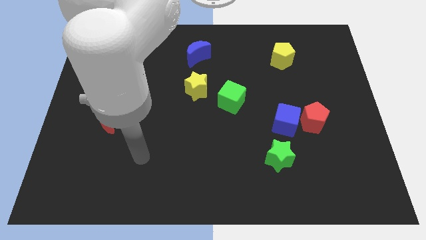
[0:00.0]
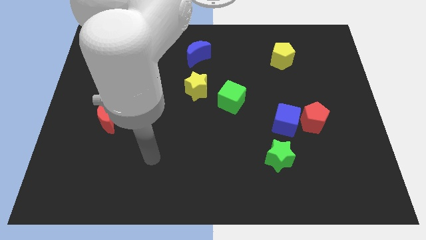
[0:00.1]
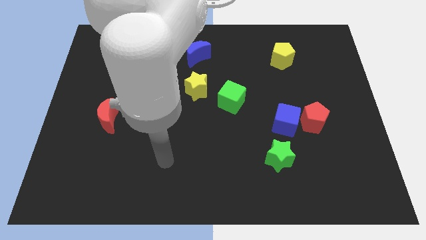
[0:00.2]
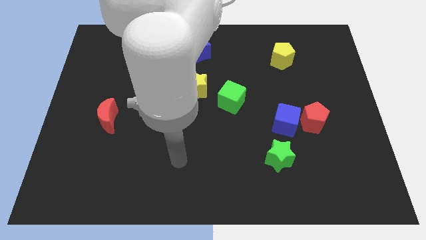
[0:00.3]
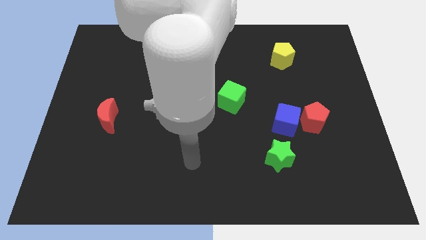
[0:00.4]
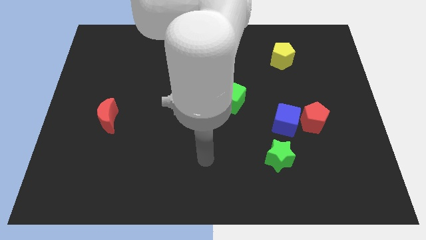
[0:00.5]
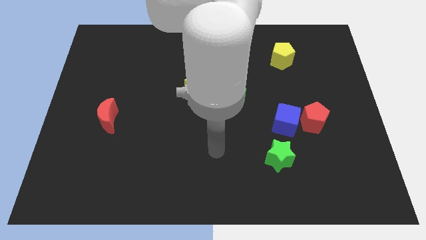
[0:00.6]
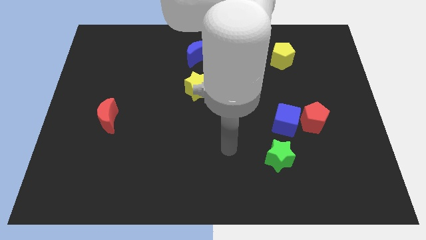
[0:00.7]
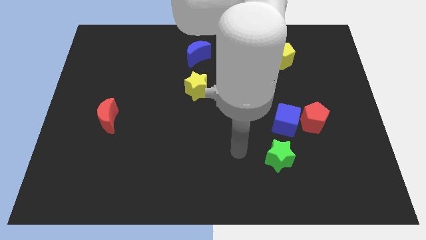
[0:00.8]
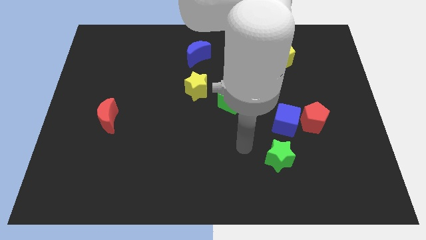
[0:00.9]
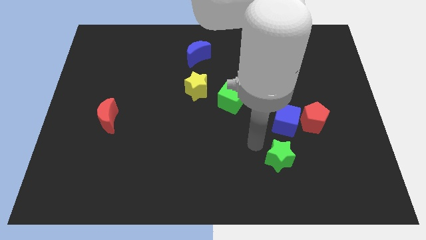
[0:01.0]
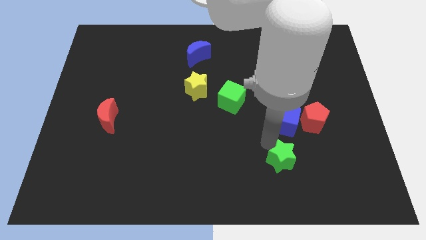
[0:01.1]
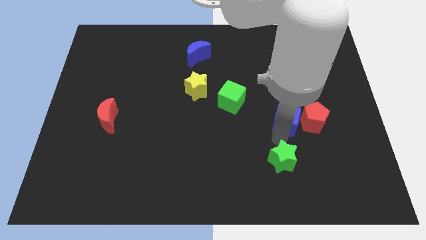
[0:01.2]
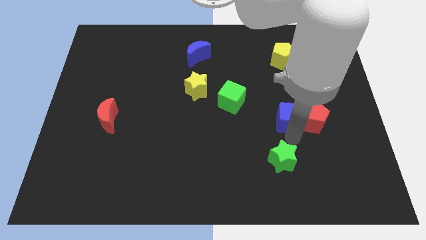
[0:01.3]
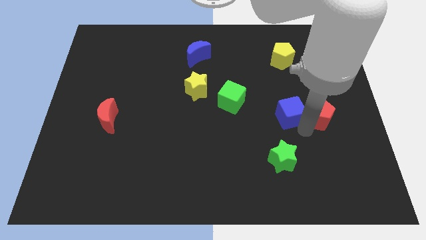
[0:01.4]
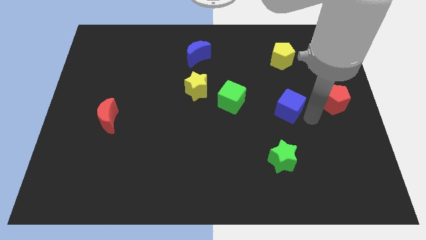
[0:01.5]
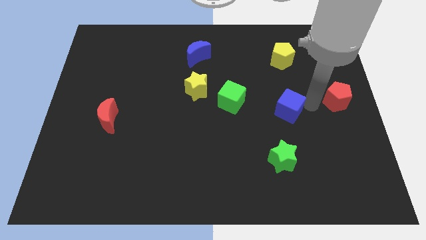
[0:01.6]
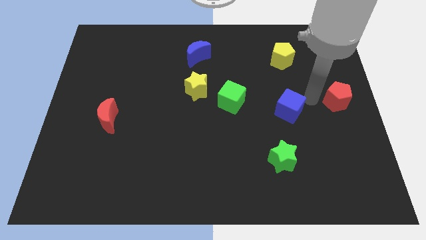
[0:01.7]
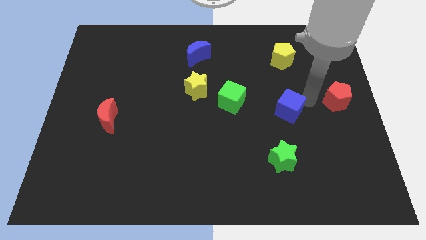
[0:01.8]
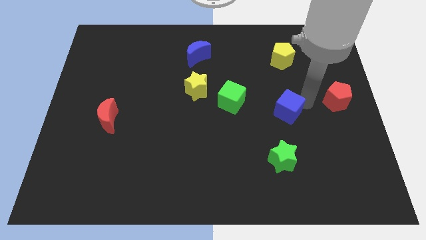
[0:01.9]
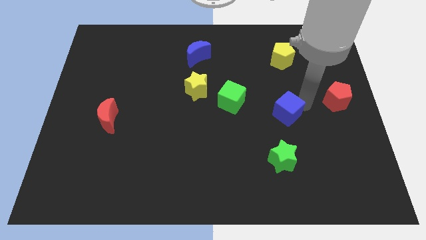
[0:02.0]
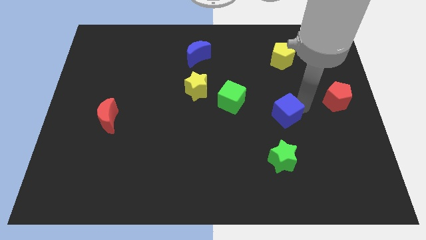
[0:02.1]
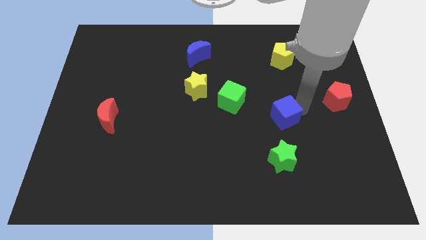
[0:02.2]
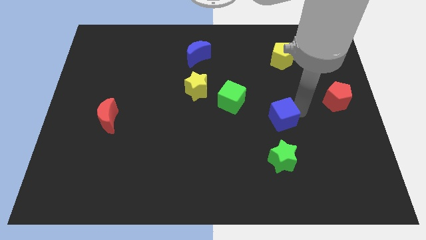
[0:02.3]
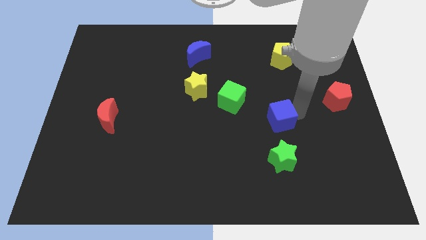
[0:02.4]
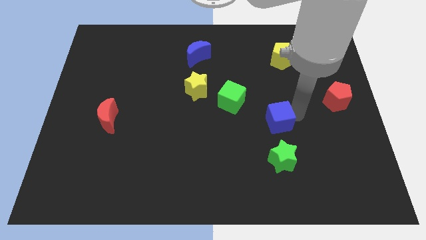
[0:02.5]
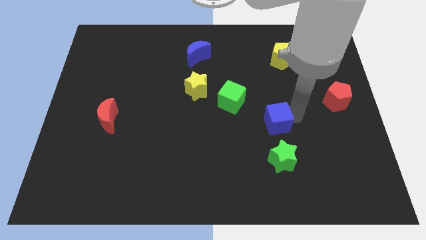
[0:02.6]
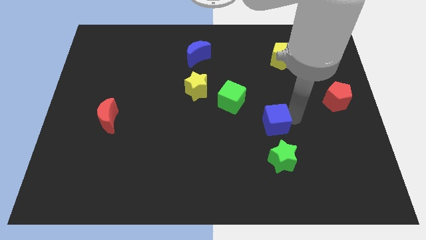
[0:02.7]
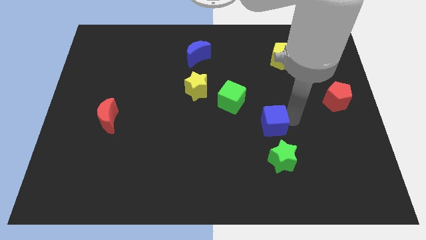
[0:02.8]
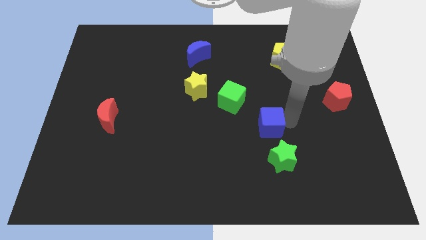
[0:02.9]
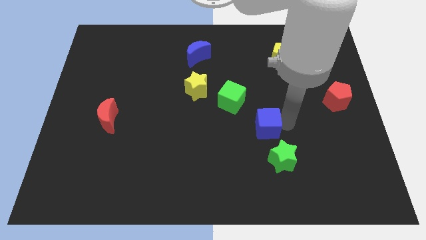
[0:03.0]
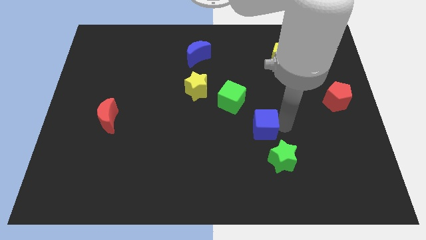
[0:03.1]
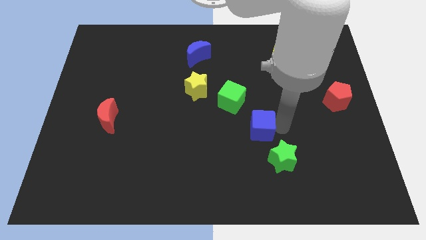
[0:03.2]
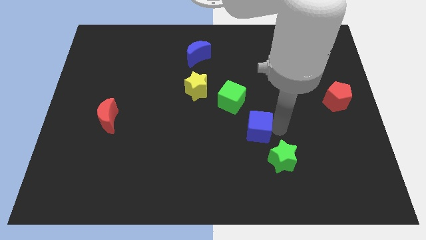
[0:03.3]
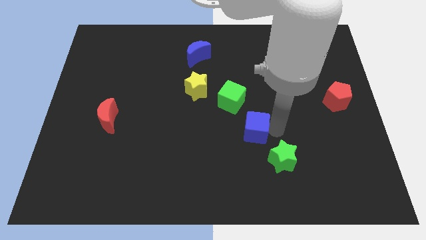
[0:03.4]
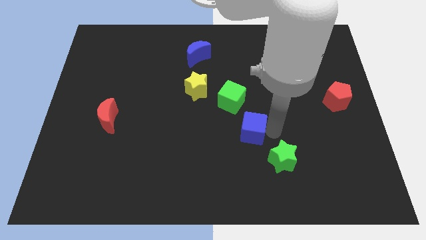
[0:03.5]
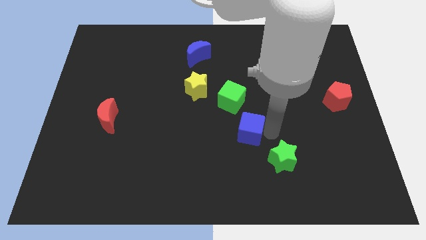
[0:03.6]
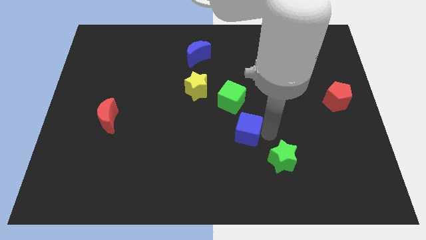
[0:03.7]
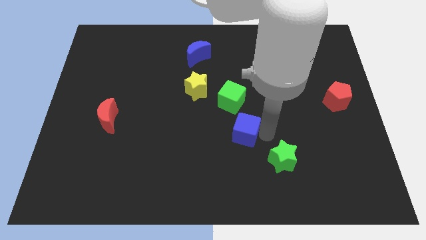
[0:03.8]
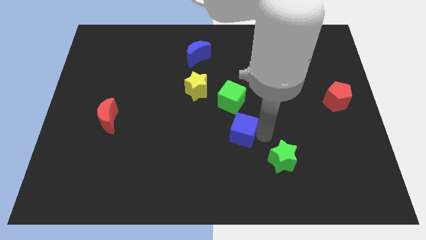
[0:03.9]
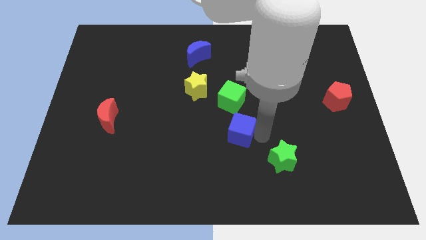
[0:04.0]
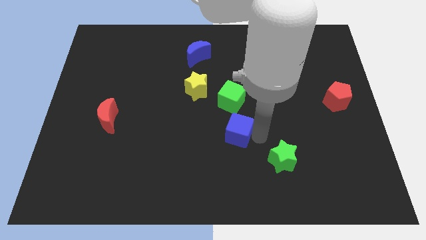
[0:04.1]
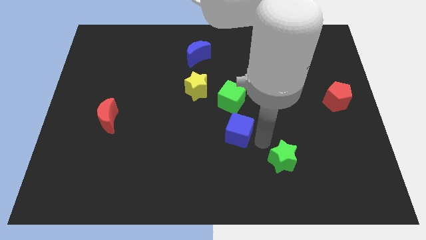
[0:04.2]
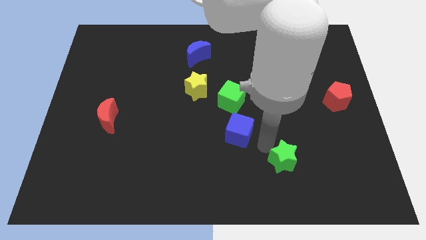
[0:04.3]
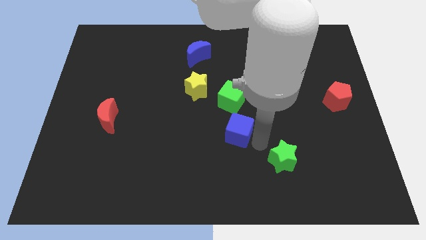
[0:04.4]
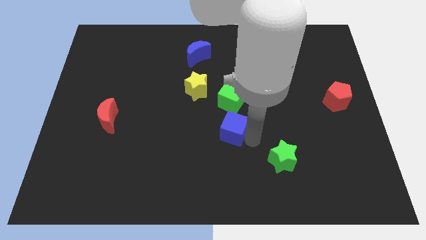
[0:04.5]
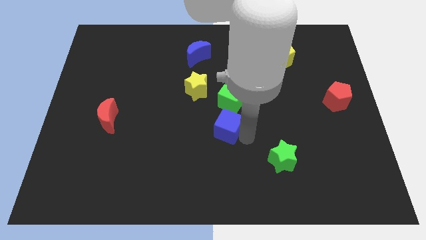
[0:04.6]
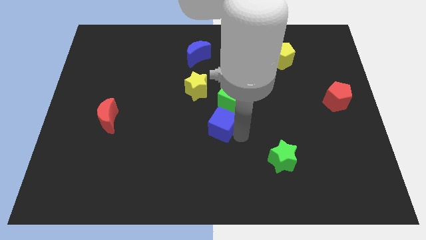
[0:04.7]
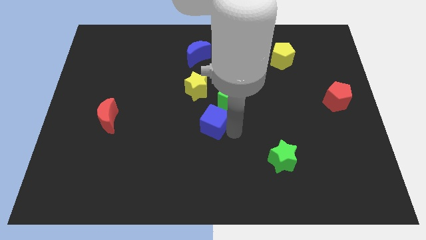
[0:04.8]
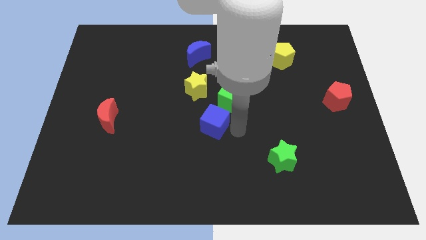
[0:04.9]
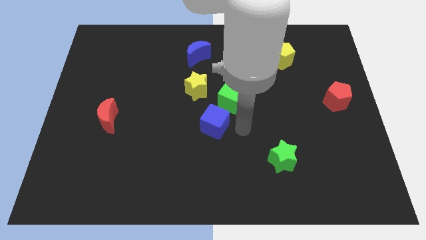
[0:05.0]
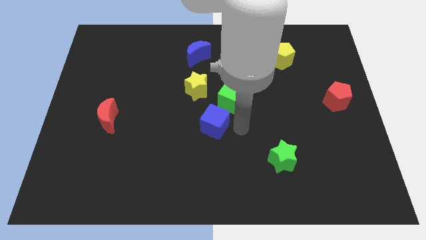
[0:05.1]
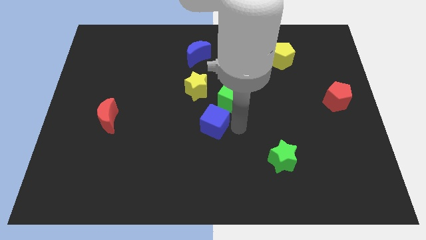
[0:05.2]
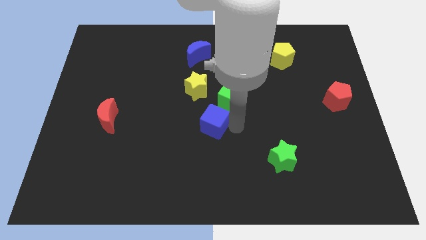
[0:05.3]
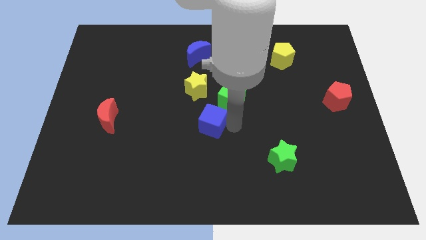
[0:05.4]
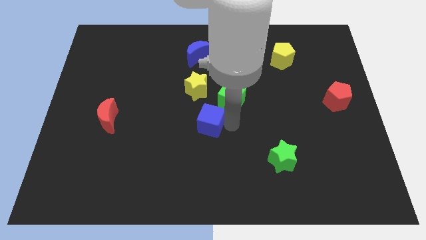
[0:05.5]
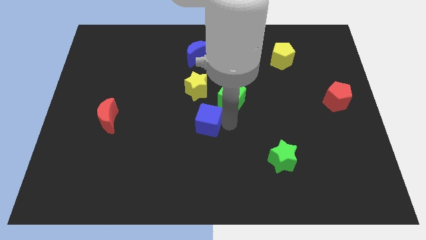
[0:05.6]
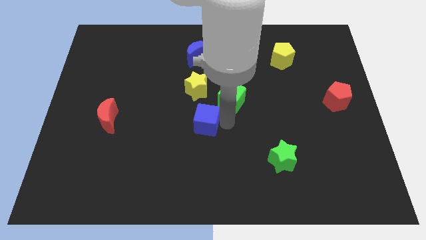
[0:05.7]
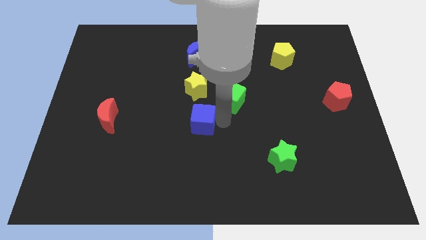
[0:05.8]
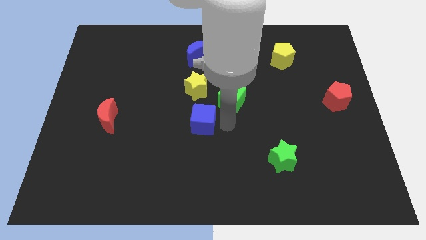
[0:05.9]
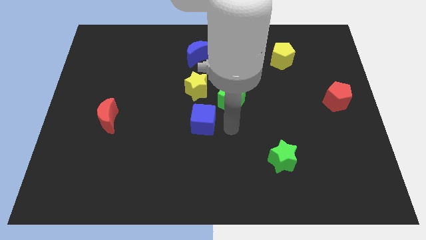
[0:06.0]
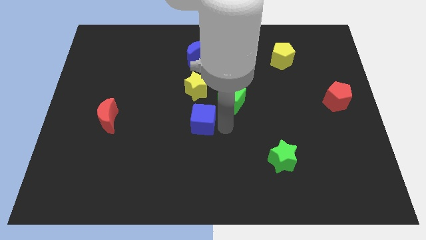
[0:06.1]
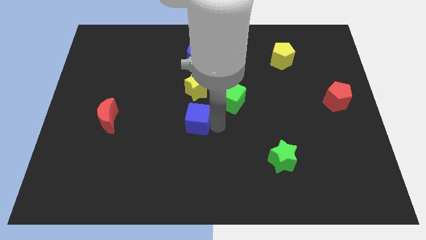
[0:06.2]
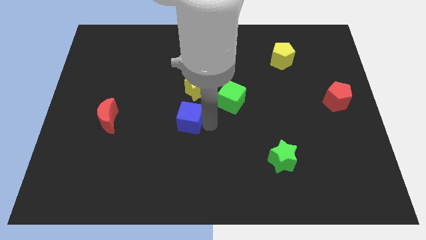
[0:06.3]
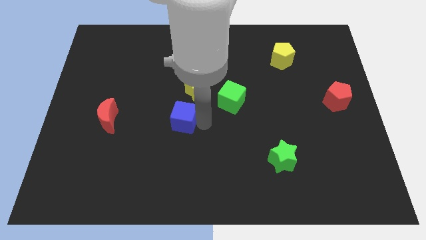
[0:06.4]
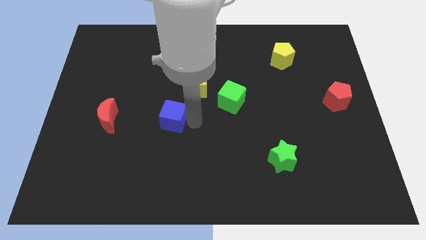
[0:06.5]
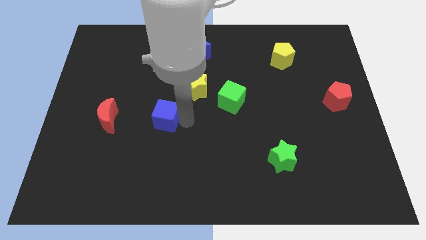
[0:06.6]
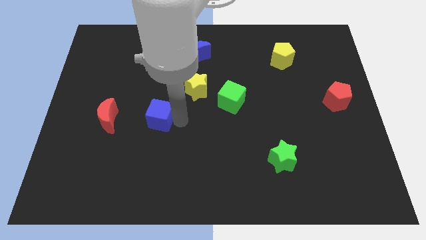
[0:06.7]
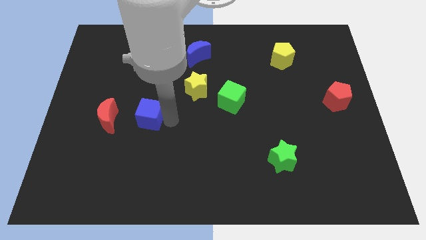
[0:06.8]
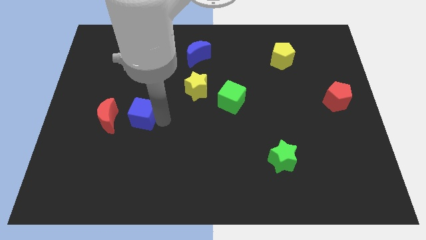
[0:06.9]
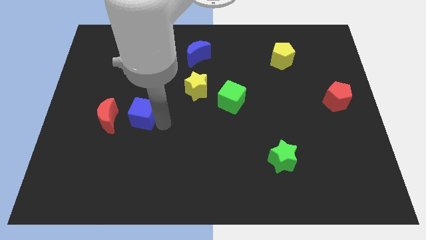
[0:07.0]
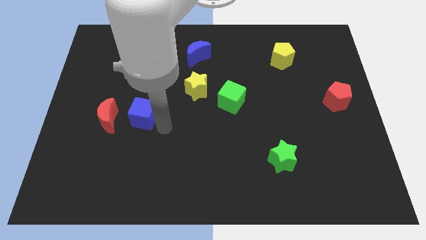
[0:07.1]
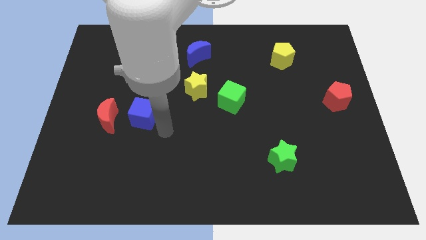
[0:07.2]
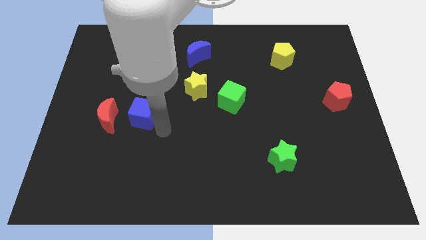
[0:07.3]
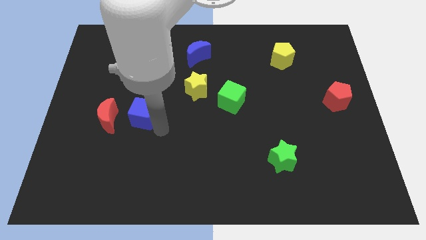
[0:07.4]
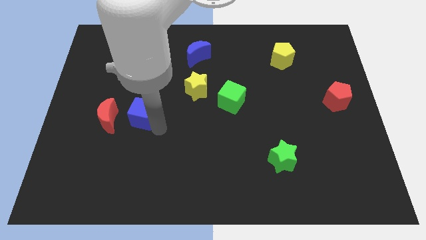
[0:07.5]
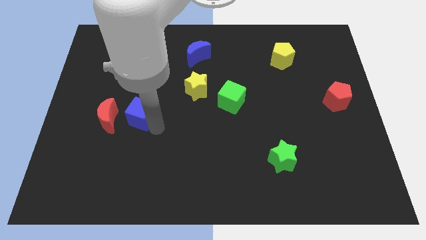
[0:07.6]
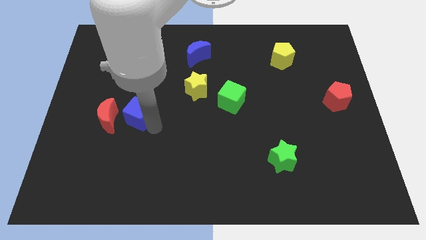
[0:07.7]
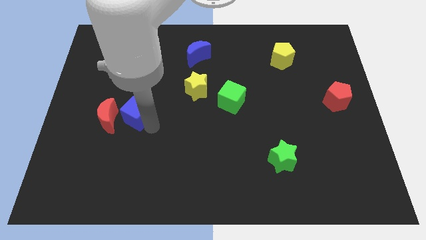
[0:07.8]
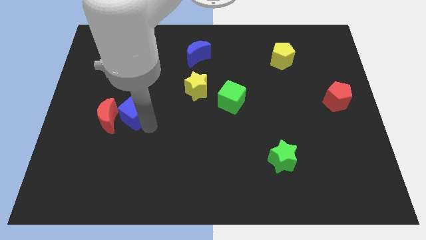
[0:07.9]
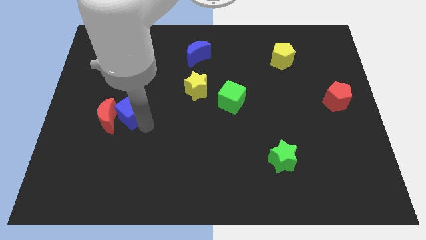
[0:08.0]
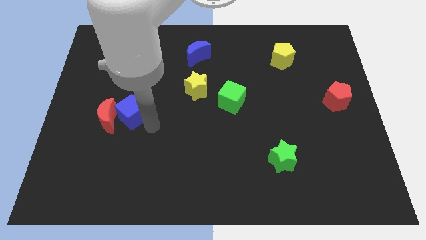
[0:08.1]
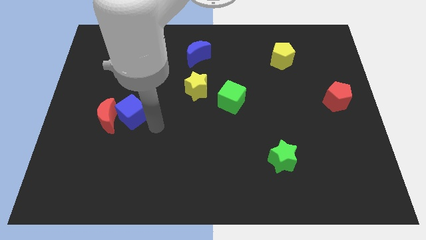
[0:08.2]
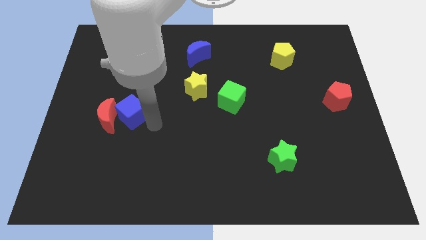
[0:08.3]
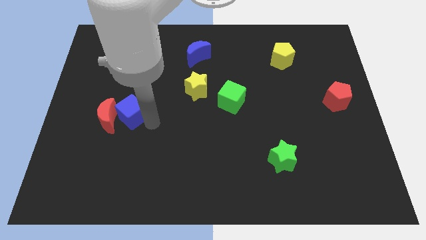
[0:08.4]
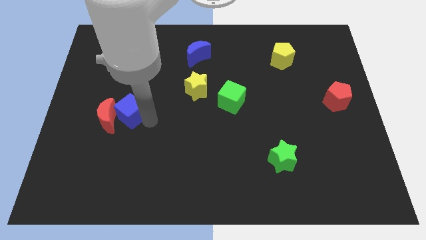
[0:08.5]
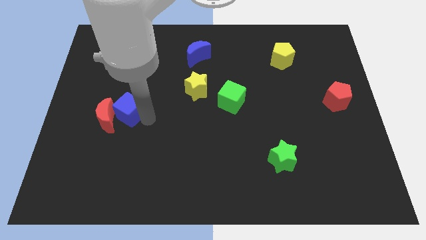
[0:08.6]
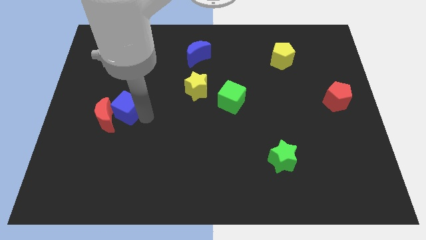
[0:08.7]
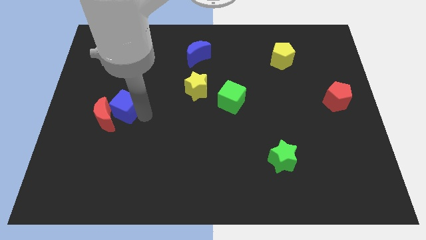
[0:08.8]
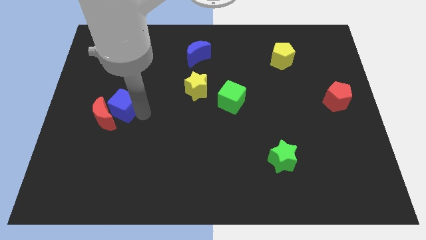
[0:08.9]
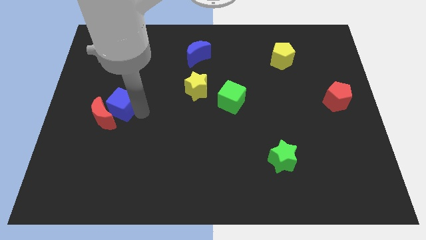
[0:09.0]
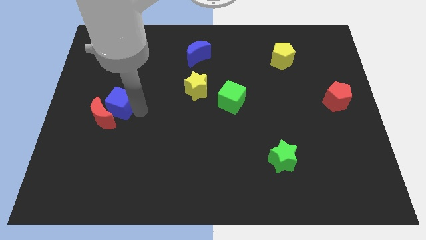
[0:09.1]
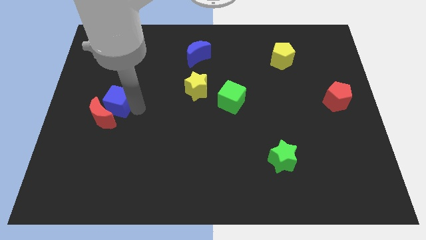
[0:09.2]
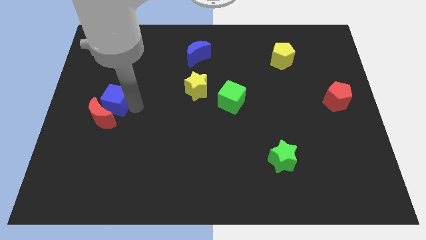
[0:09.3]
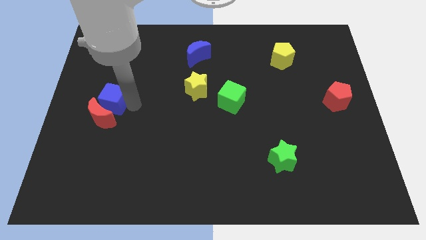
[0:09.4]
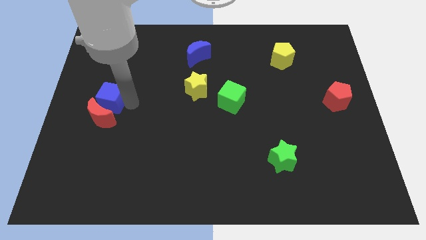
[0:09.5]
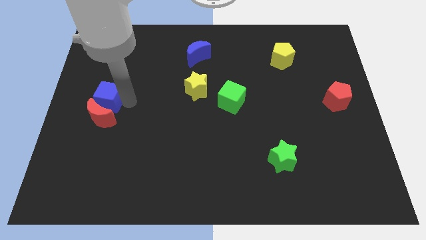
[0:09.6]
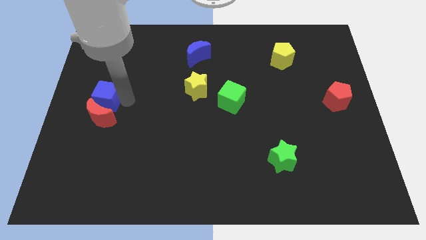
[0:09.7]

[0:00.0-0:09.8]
push the blue cube to the center left
